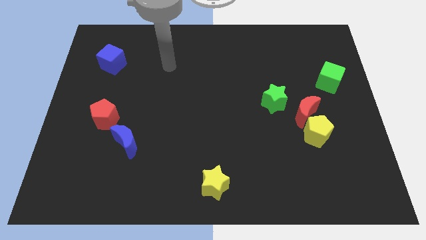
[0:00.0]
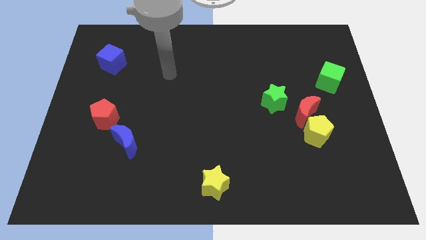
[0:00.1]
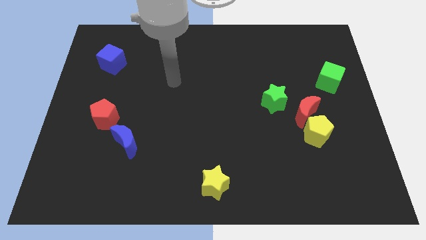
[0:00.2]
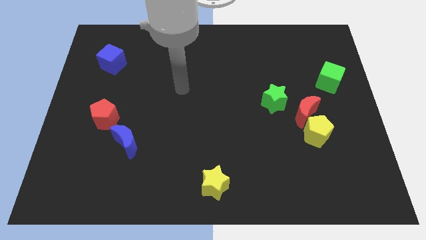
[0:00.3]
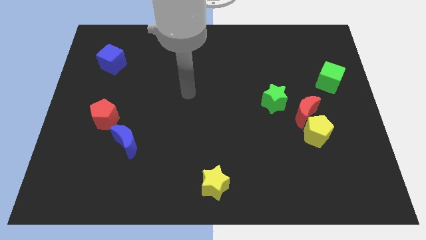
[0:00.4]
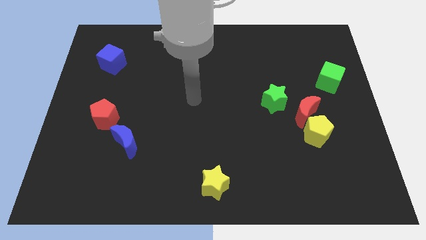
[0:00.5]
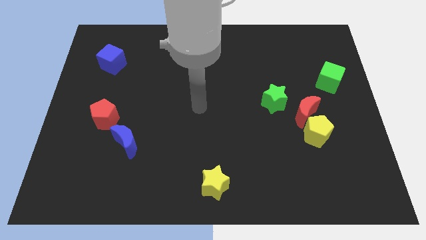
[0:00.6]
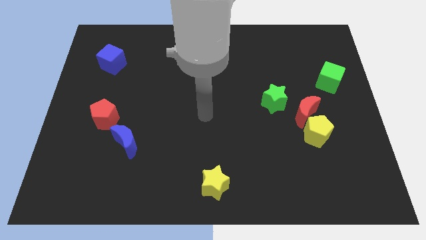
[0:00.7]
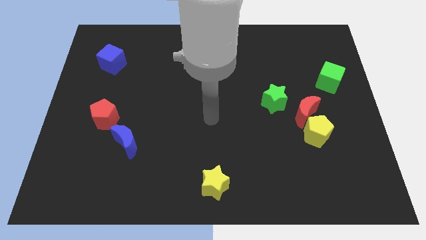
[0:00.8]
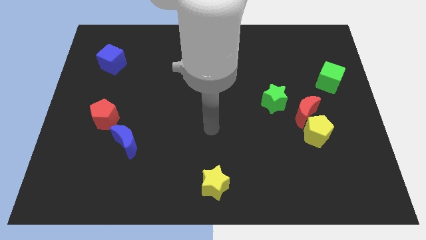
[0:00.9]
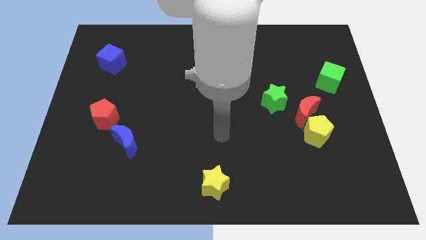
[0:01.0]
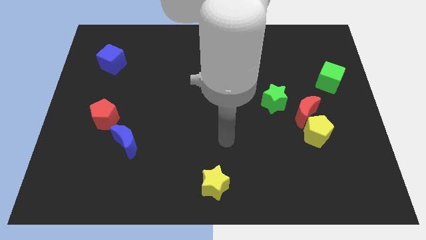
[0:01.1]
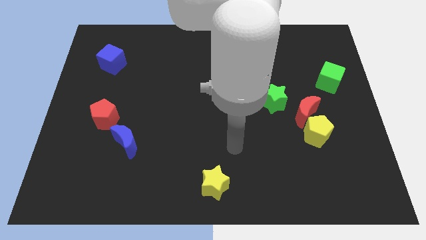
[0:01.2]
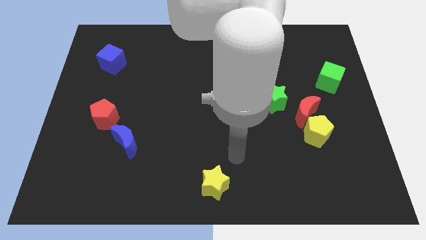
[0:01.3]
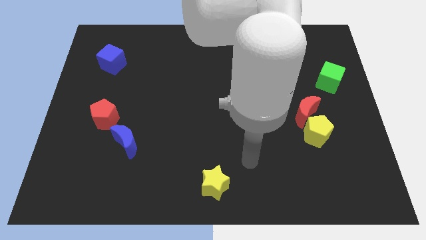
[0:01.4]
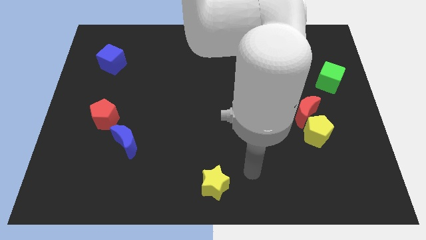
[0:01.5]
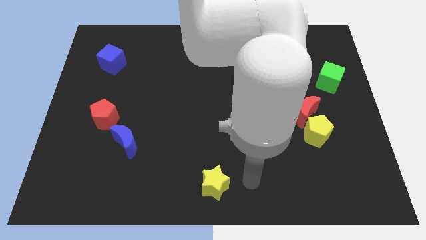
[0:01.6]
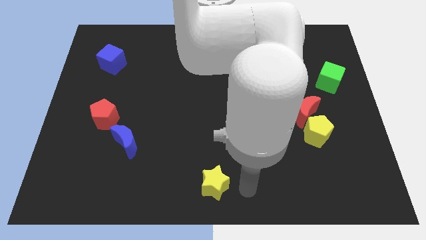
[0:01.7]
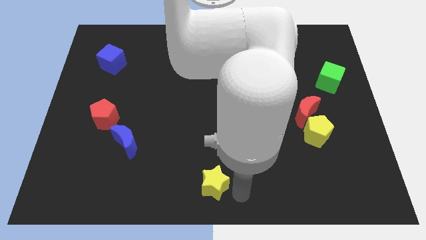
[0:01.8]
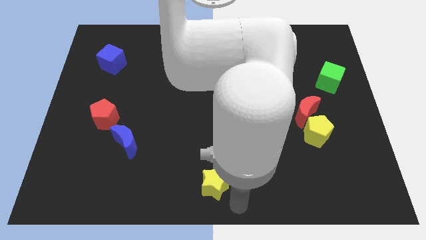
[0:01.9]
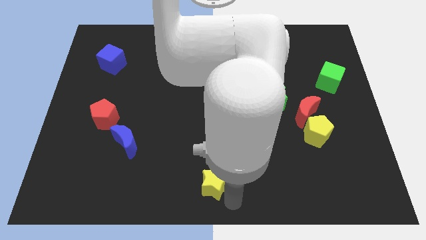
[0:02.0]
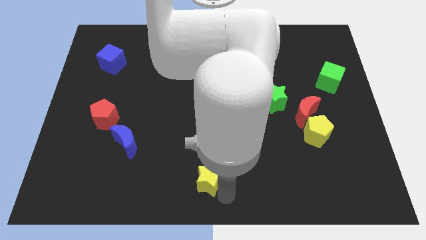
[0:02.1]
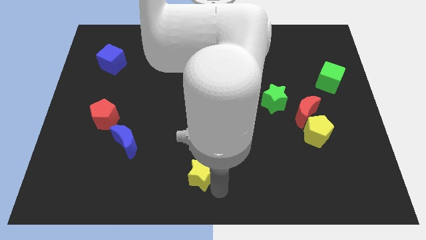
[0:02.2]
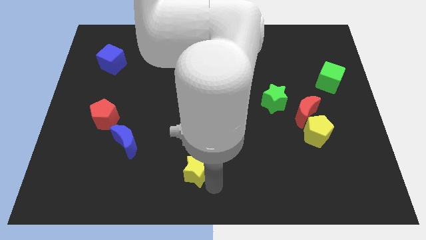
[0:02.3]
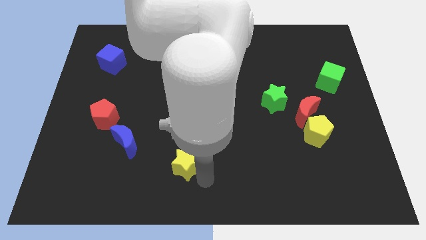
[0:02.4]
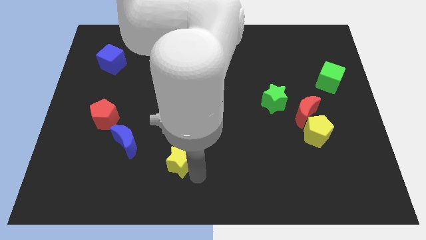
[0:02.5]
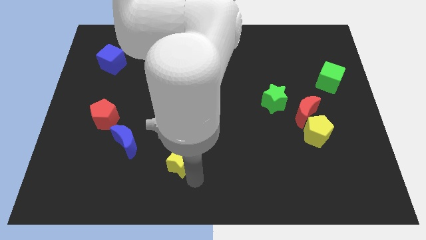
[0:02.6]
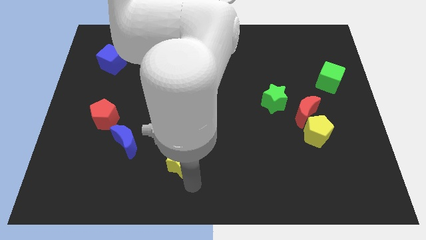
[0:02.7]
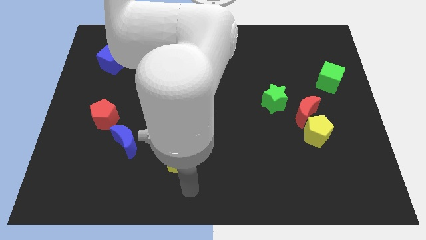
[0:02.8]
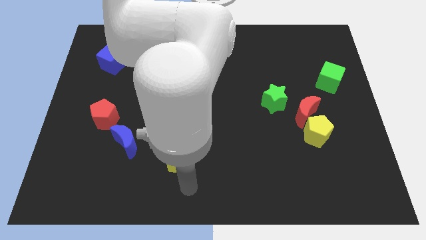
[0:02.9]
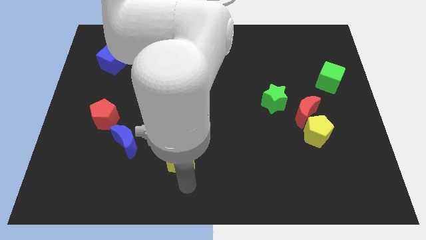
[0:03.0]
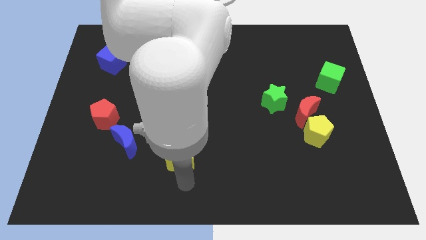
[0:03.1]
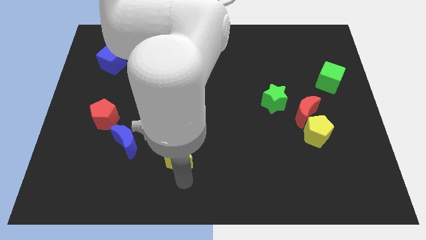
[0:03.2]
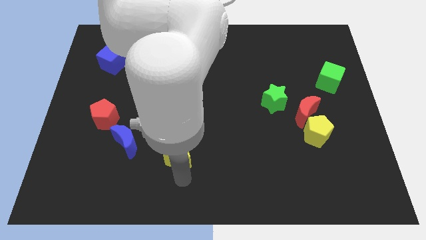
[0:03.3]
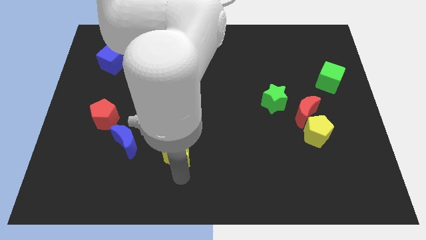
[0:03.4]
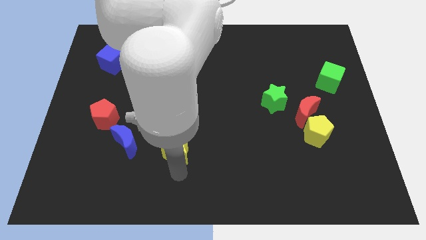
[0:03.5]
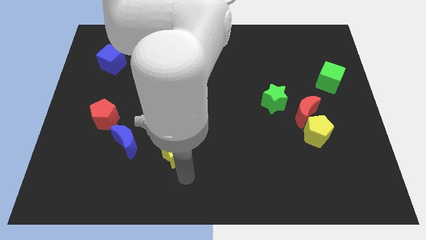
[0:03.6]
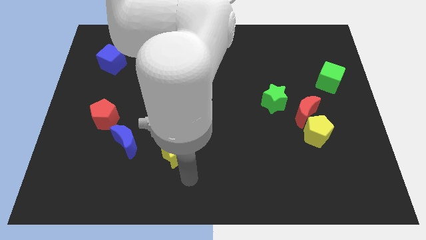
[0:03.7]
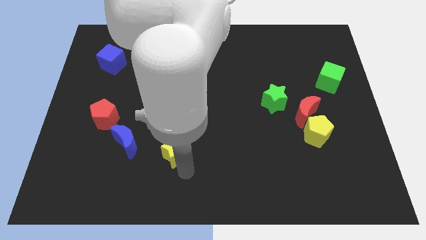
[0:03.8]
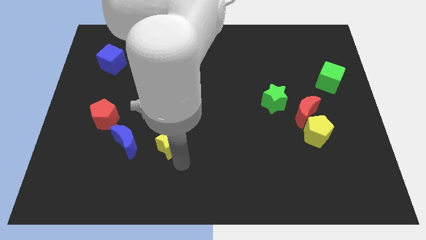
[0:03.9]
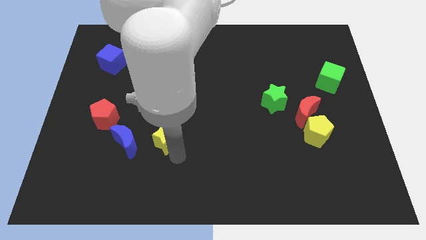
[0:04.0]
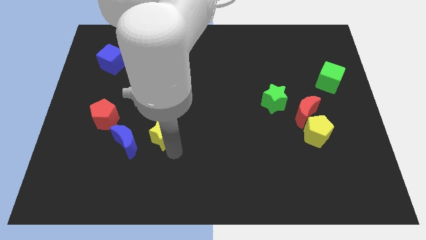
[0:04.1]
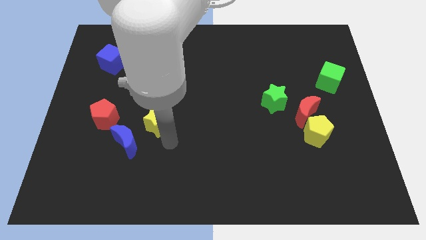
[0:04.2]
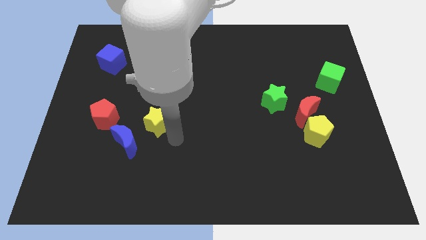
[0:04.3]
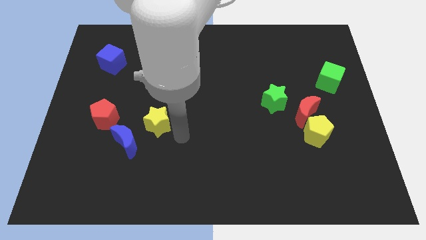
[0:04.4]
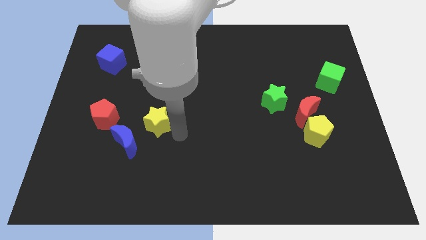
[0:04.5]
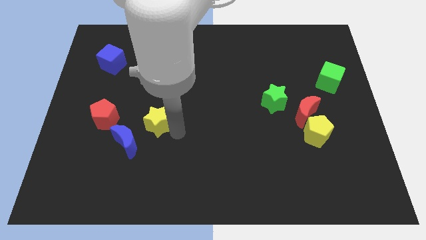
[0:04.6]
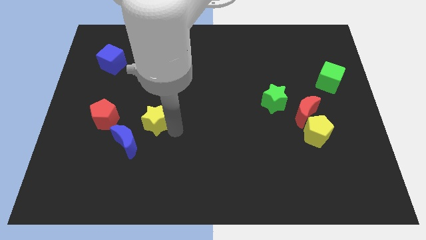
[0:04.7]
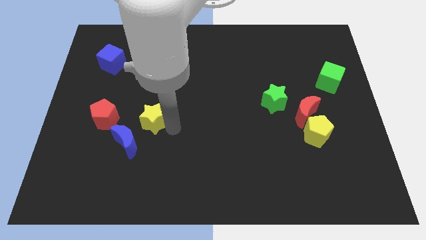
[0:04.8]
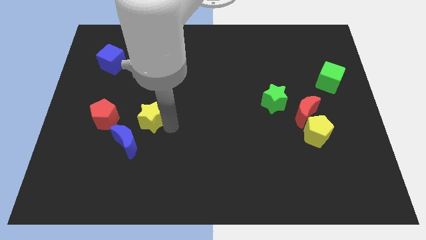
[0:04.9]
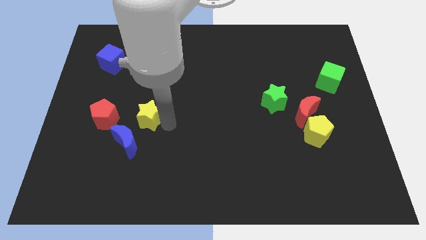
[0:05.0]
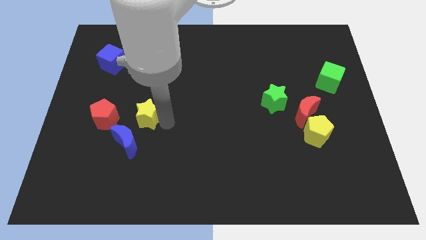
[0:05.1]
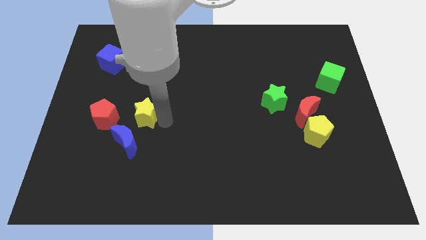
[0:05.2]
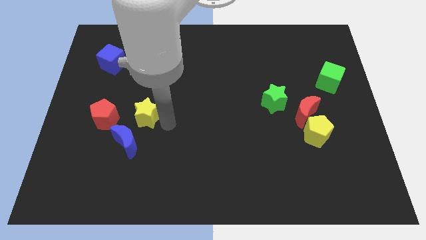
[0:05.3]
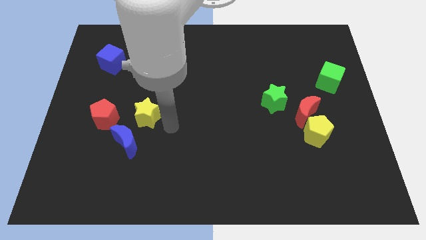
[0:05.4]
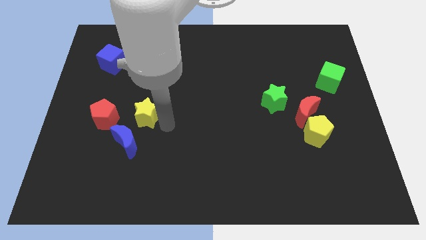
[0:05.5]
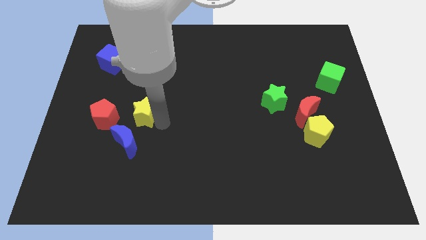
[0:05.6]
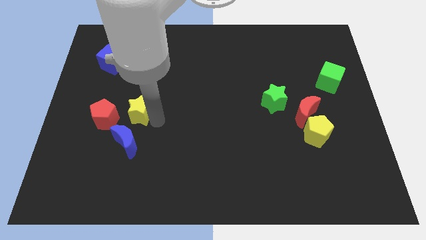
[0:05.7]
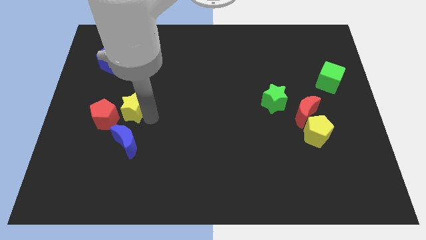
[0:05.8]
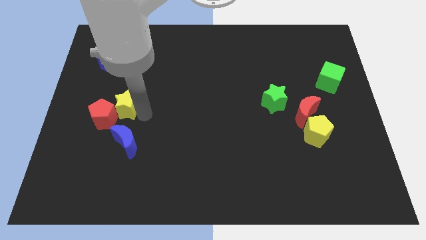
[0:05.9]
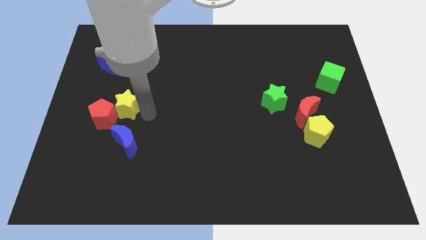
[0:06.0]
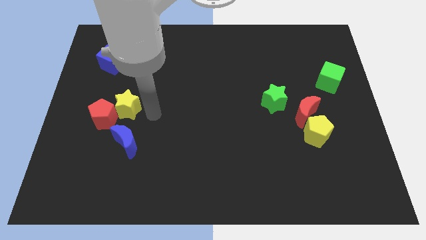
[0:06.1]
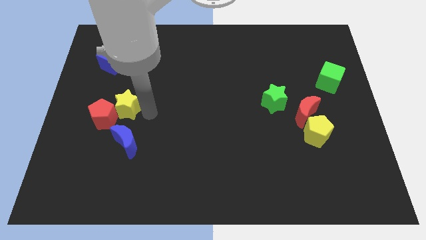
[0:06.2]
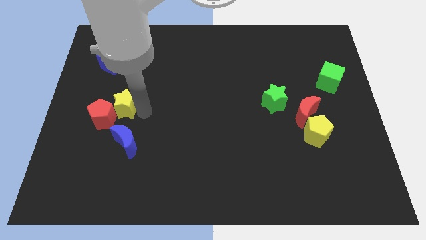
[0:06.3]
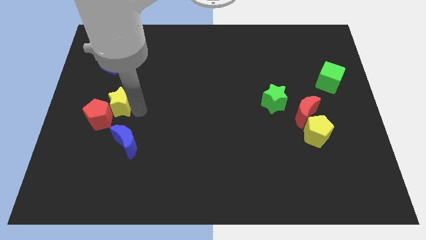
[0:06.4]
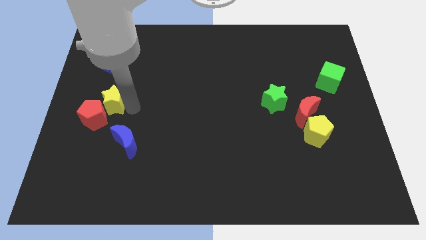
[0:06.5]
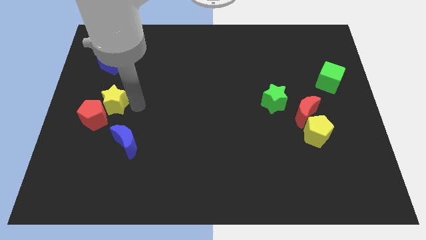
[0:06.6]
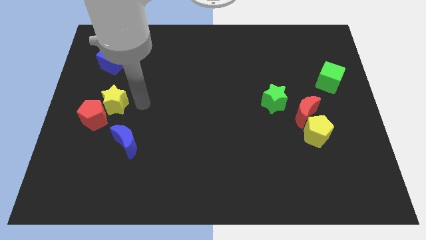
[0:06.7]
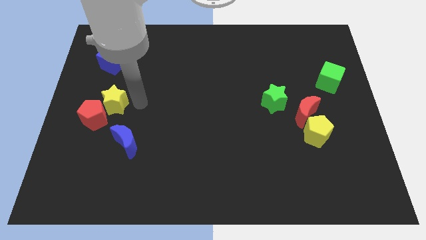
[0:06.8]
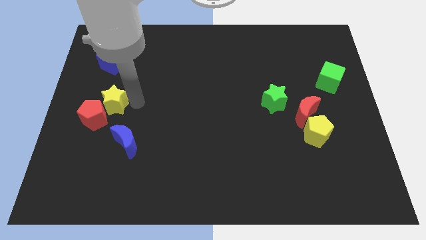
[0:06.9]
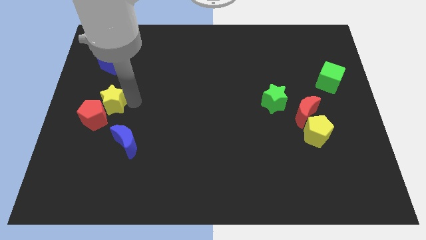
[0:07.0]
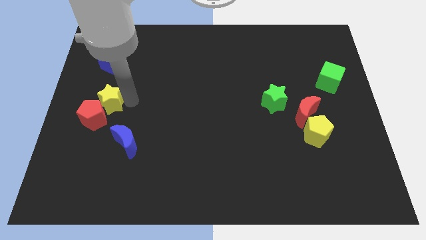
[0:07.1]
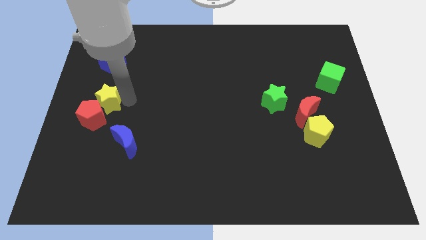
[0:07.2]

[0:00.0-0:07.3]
push the yellow star to the left side of the board

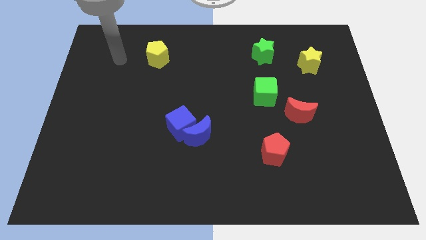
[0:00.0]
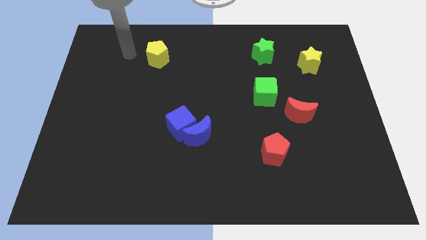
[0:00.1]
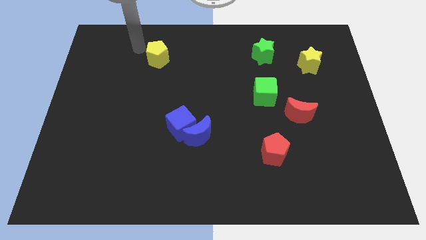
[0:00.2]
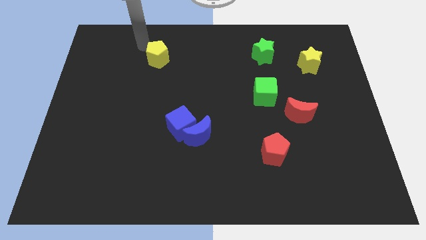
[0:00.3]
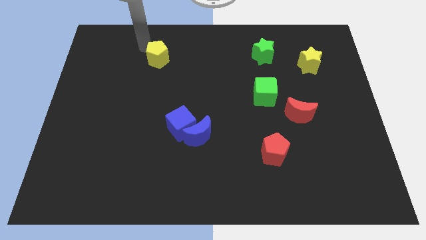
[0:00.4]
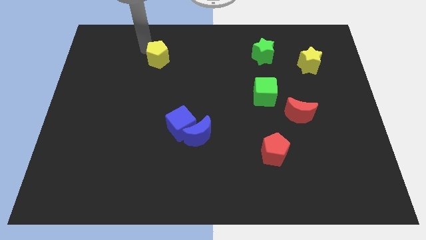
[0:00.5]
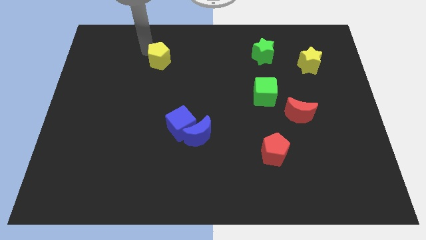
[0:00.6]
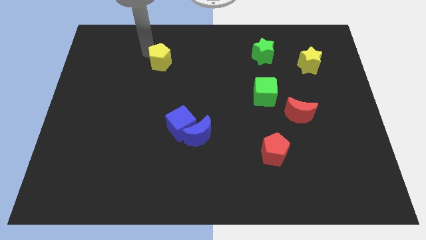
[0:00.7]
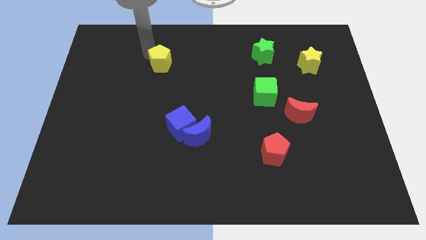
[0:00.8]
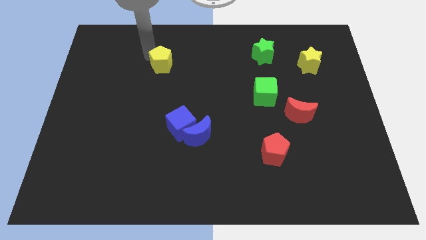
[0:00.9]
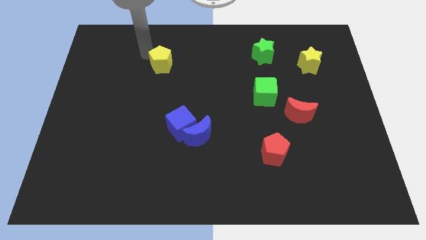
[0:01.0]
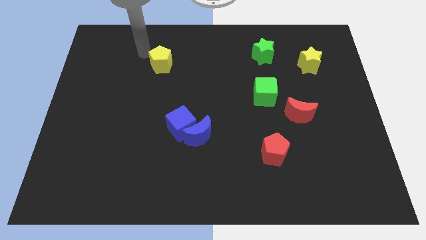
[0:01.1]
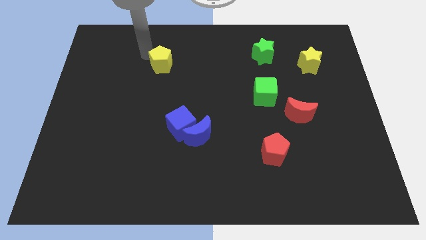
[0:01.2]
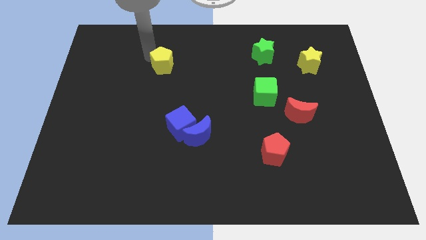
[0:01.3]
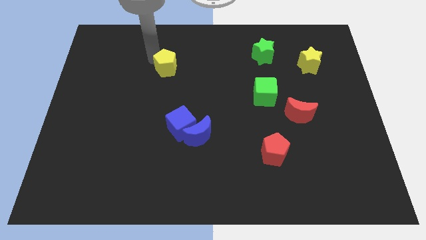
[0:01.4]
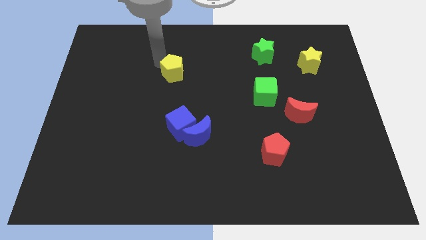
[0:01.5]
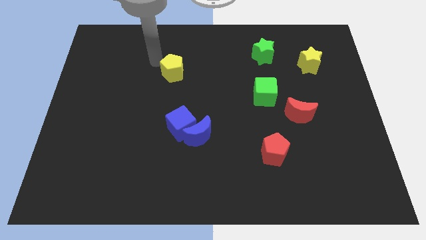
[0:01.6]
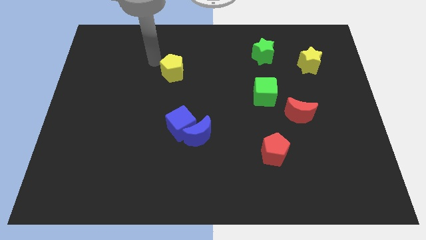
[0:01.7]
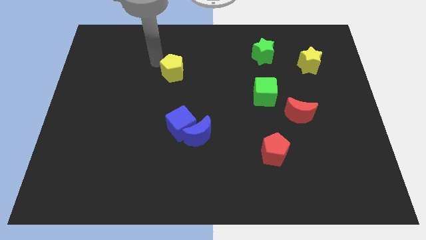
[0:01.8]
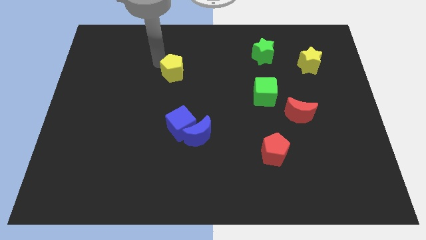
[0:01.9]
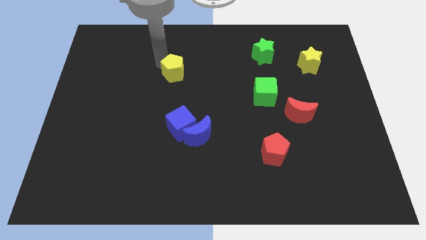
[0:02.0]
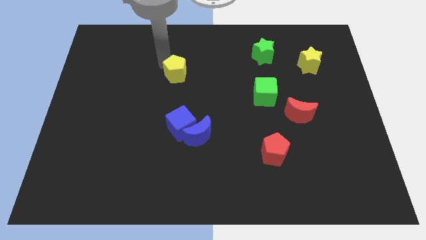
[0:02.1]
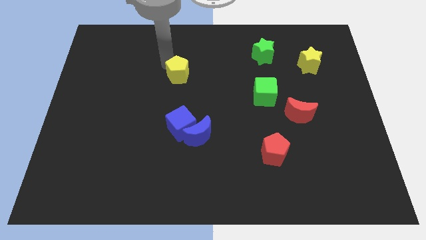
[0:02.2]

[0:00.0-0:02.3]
push the yellow pentagon to the center
